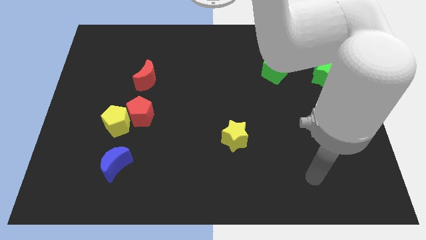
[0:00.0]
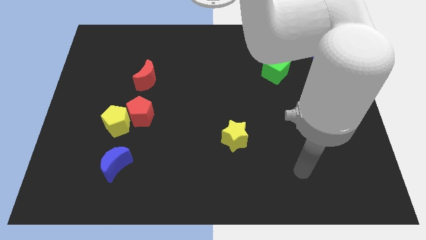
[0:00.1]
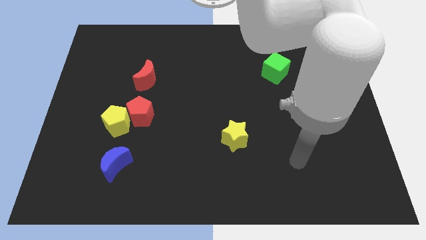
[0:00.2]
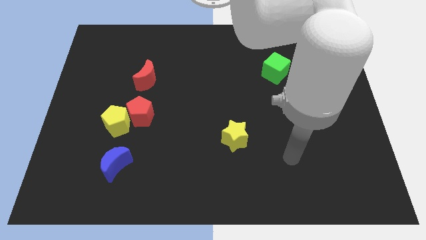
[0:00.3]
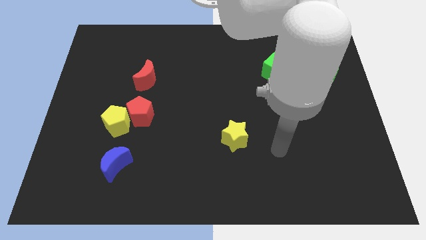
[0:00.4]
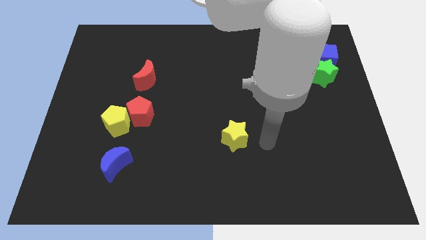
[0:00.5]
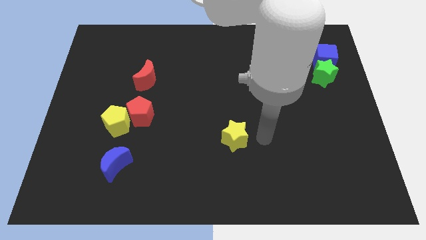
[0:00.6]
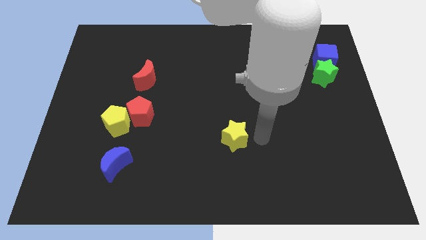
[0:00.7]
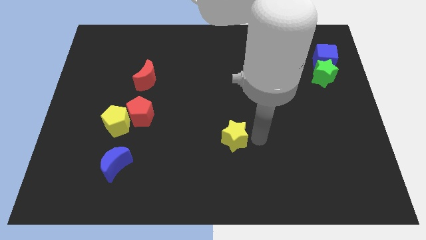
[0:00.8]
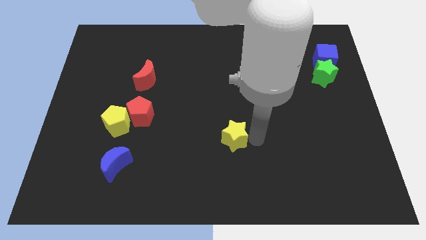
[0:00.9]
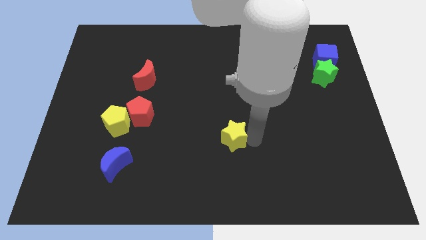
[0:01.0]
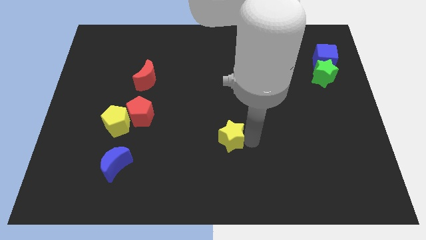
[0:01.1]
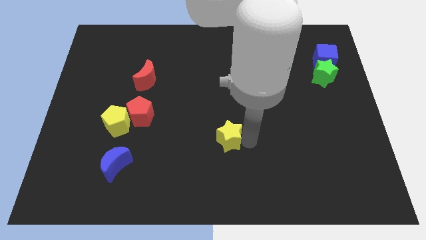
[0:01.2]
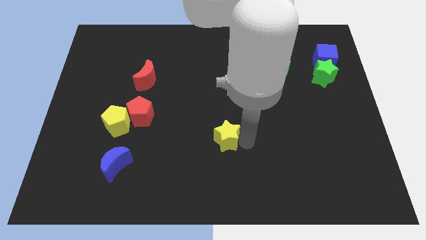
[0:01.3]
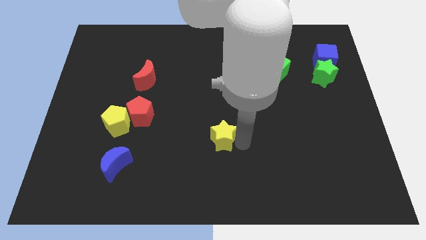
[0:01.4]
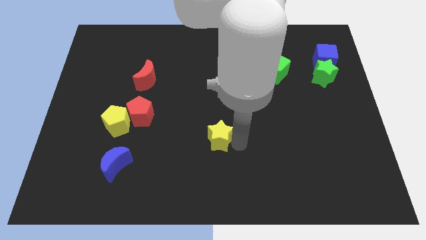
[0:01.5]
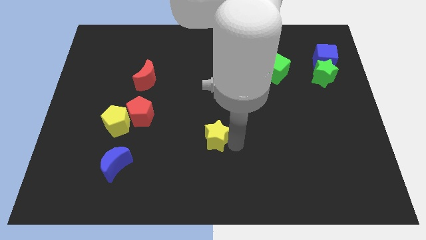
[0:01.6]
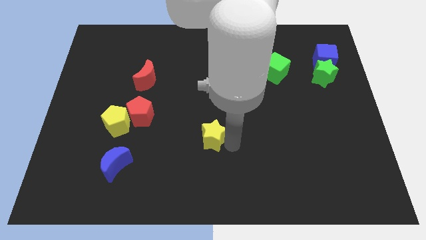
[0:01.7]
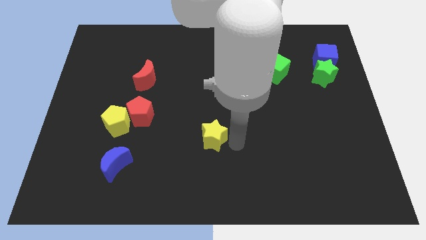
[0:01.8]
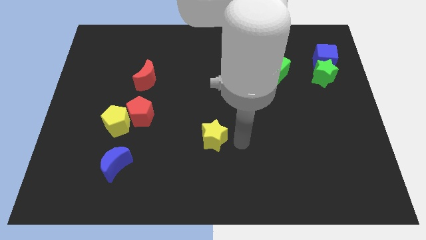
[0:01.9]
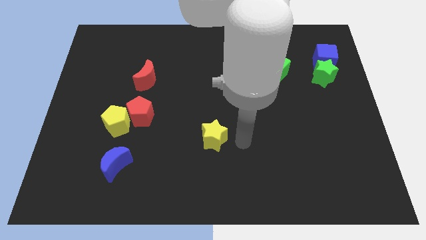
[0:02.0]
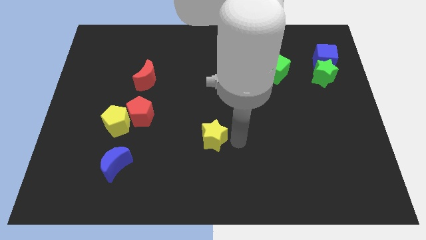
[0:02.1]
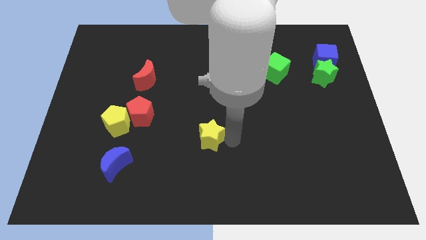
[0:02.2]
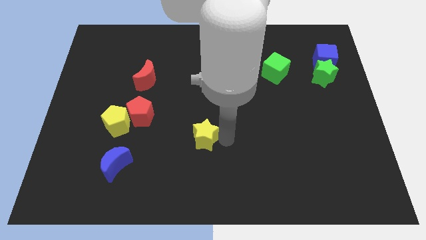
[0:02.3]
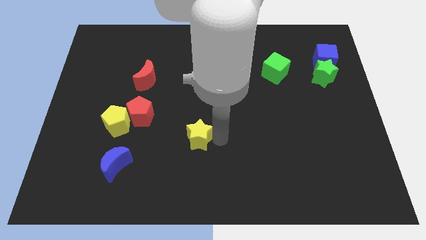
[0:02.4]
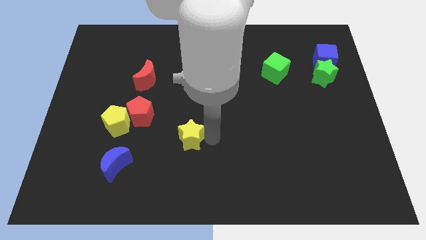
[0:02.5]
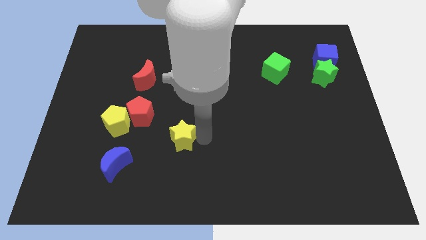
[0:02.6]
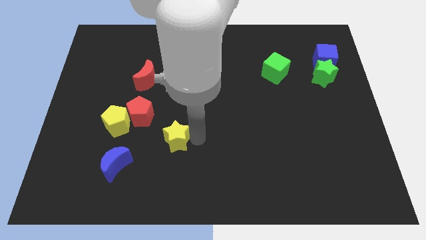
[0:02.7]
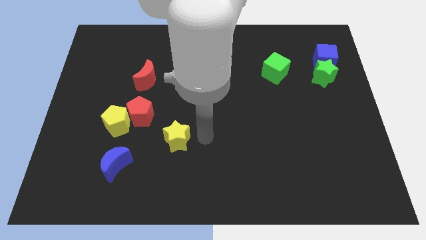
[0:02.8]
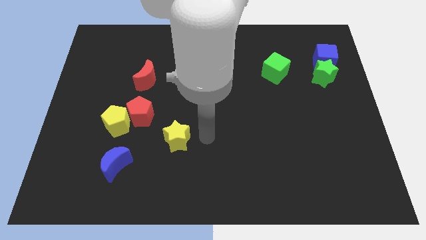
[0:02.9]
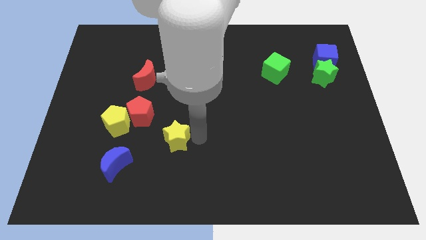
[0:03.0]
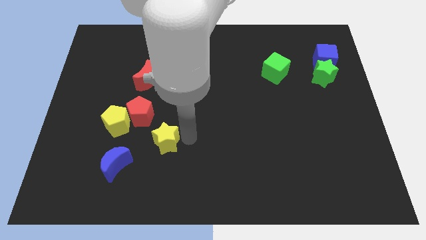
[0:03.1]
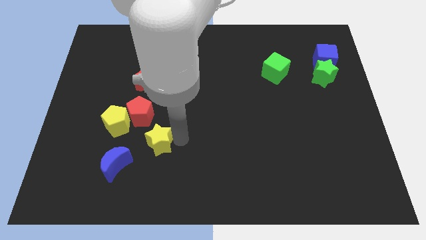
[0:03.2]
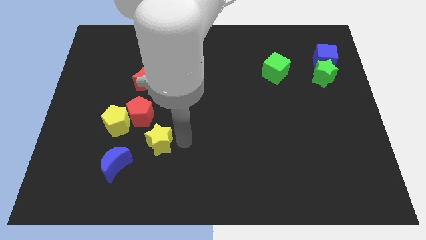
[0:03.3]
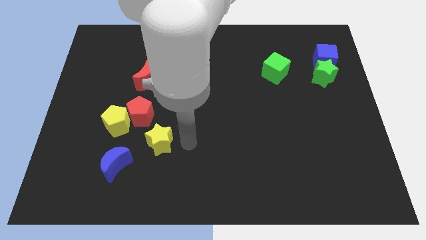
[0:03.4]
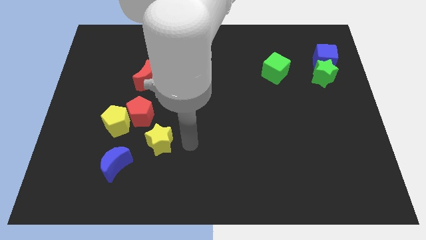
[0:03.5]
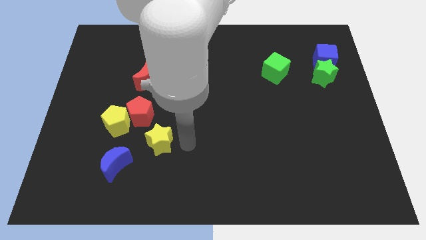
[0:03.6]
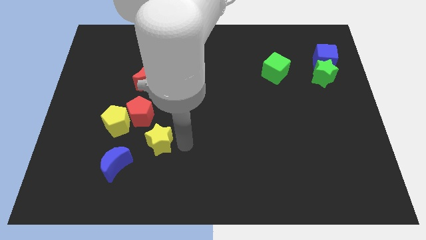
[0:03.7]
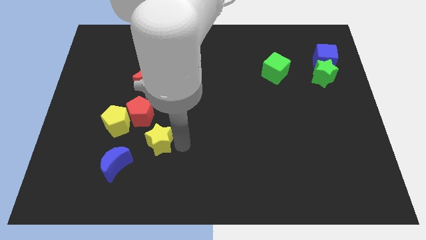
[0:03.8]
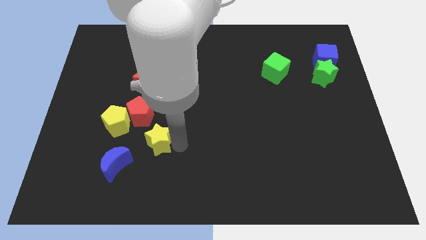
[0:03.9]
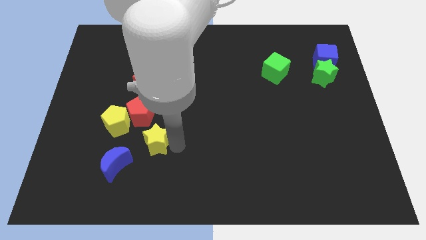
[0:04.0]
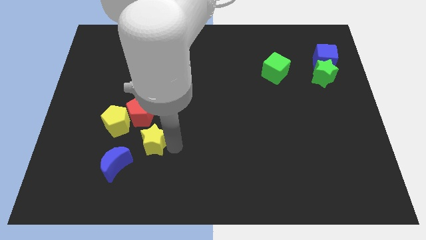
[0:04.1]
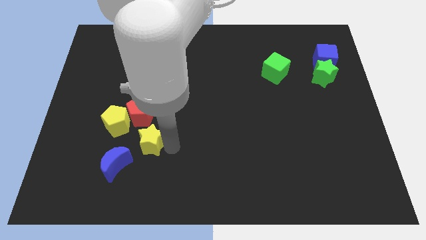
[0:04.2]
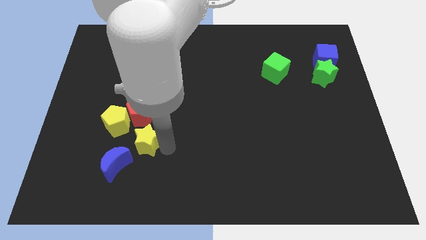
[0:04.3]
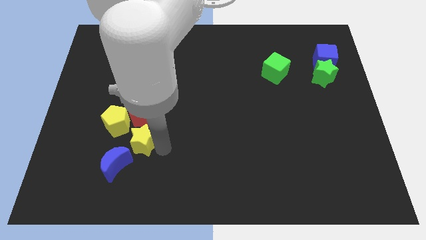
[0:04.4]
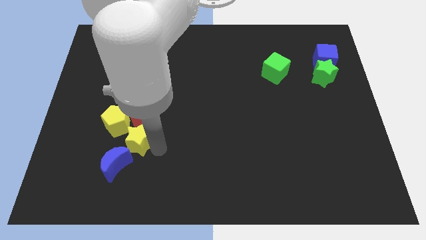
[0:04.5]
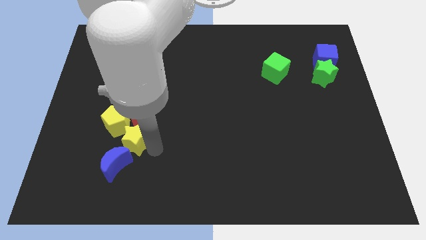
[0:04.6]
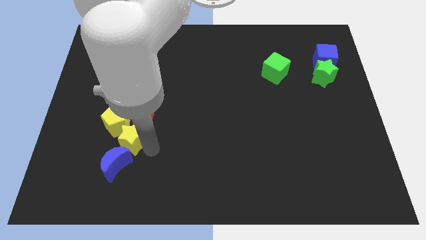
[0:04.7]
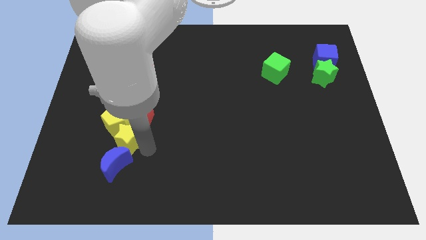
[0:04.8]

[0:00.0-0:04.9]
push the yellow star towards the yellow pentagon

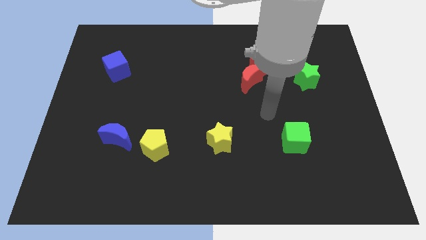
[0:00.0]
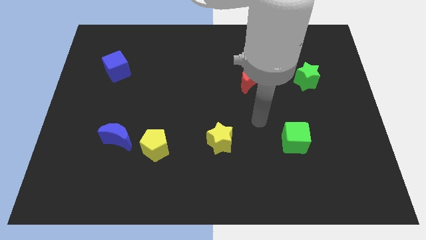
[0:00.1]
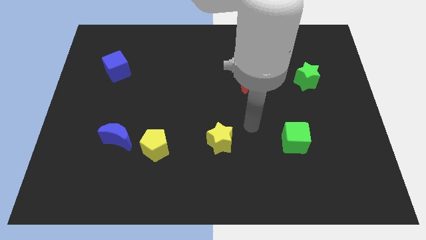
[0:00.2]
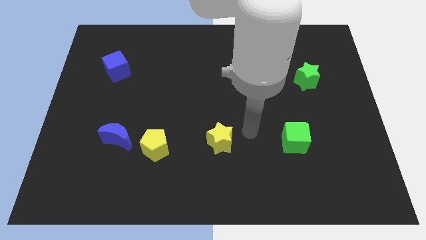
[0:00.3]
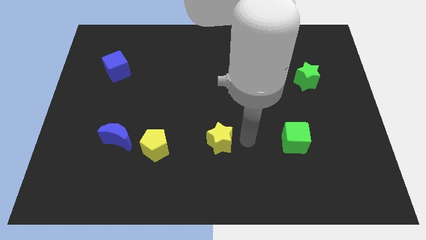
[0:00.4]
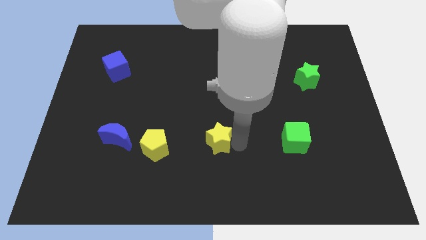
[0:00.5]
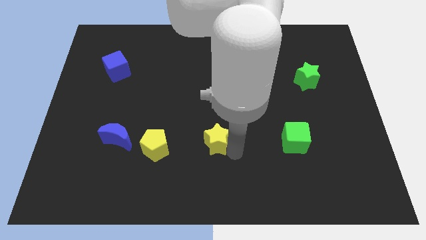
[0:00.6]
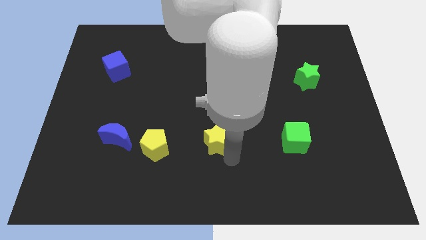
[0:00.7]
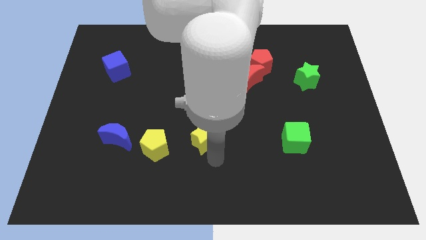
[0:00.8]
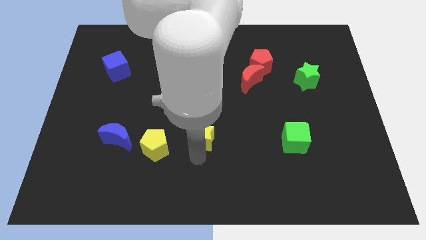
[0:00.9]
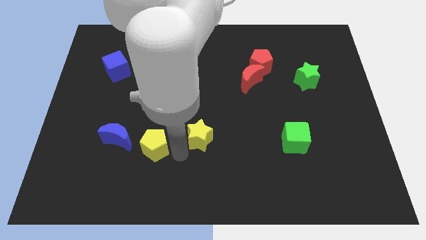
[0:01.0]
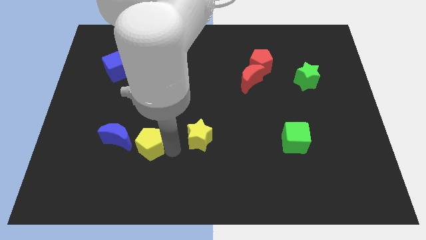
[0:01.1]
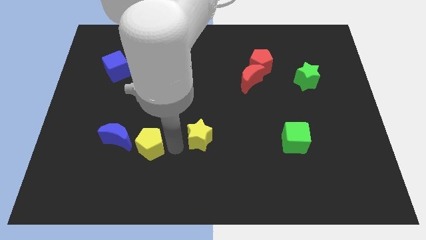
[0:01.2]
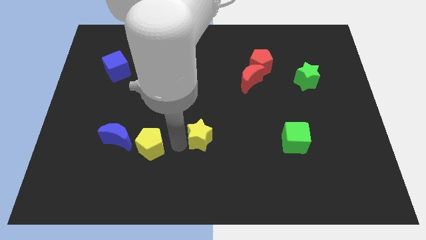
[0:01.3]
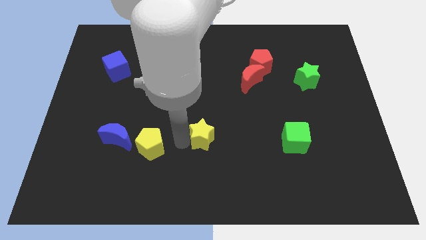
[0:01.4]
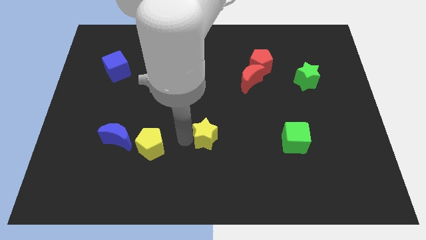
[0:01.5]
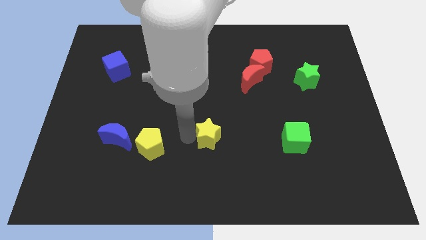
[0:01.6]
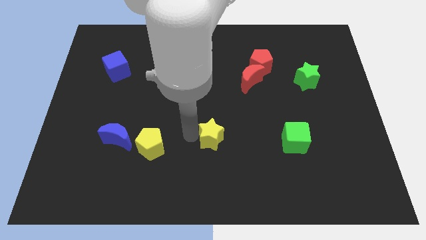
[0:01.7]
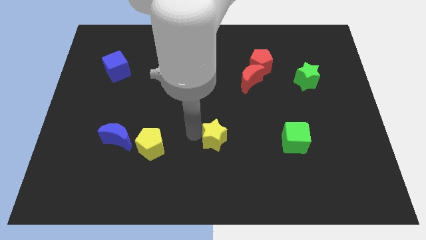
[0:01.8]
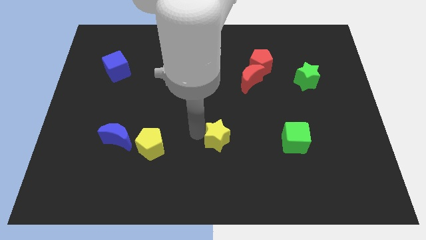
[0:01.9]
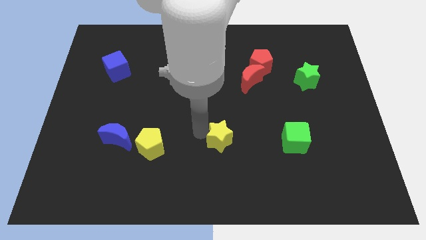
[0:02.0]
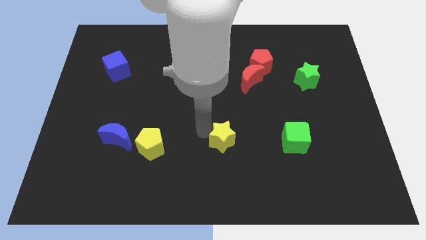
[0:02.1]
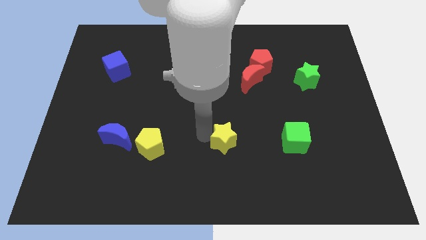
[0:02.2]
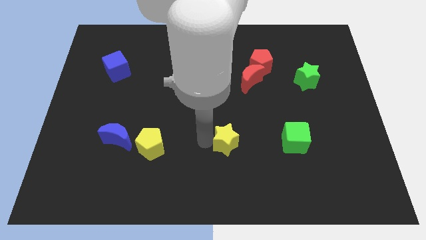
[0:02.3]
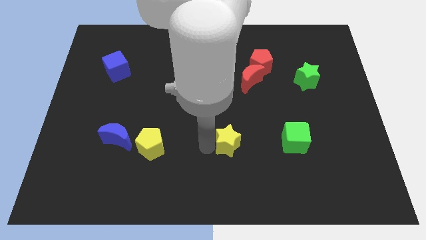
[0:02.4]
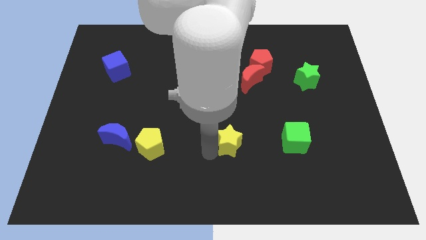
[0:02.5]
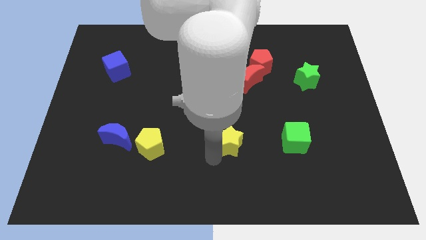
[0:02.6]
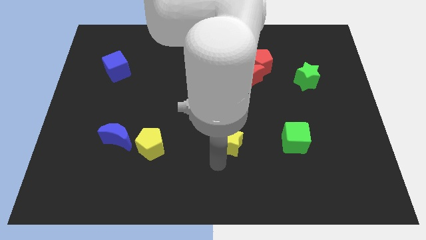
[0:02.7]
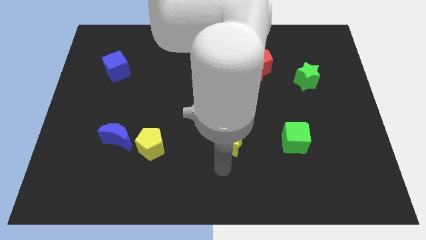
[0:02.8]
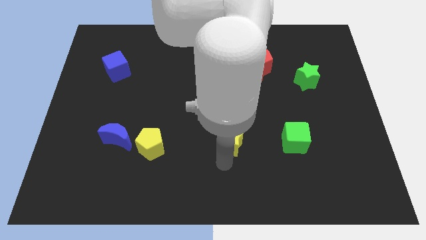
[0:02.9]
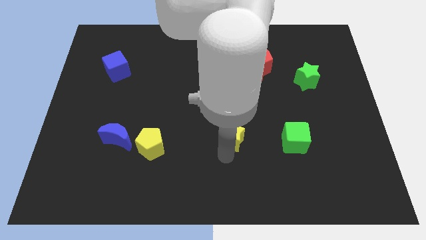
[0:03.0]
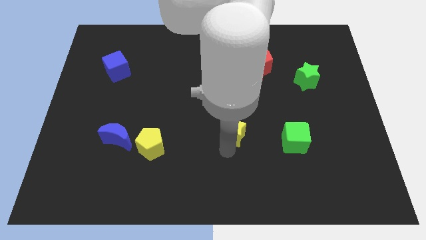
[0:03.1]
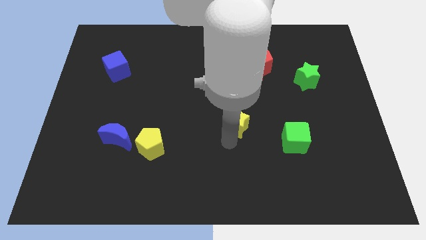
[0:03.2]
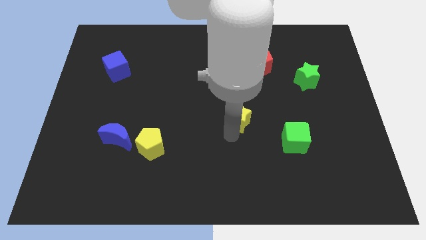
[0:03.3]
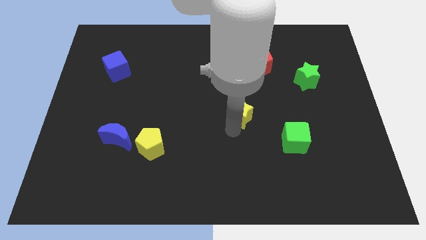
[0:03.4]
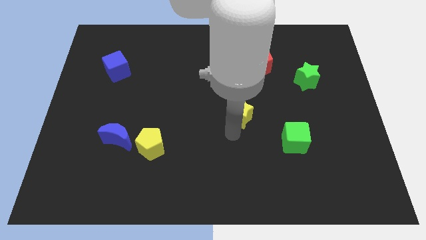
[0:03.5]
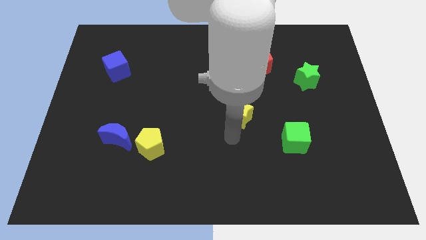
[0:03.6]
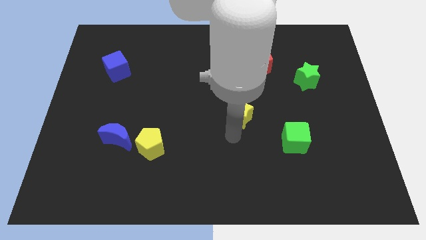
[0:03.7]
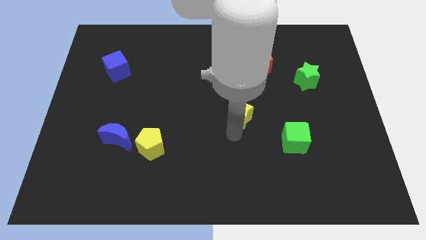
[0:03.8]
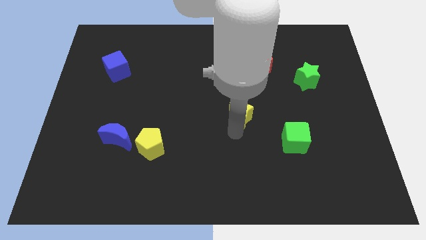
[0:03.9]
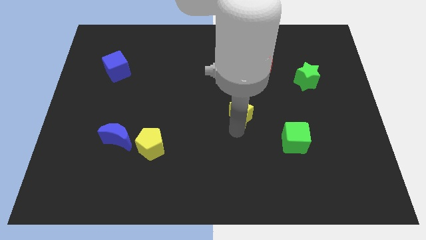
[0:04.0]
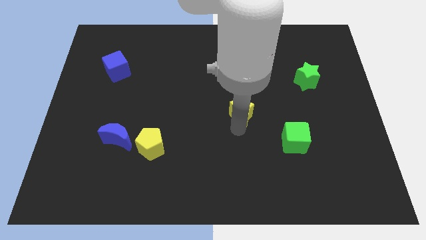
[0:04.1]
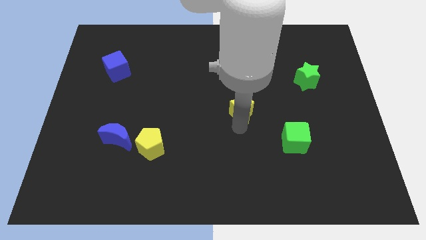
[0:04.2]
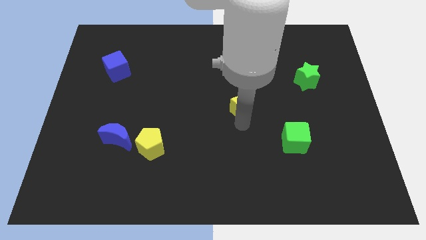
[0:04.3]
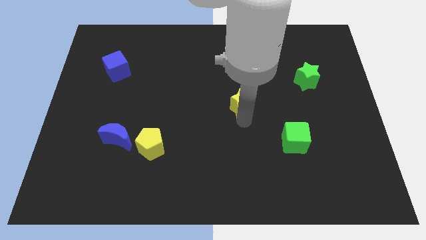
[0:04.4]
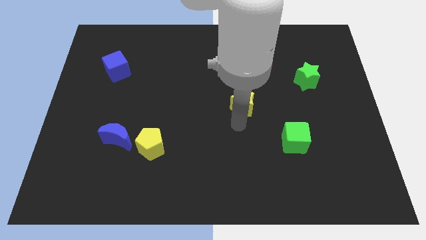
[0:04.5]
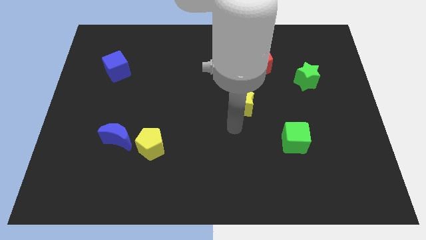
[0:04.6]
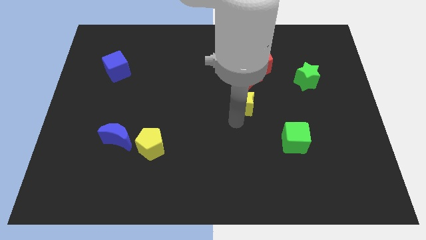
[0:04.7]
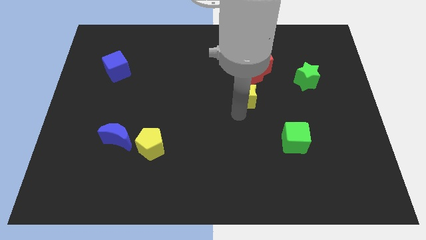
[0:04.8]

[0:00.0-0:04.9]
put the yellow star close to the red moon
